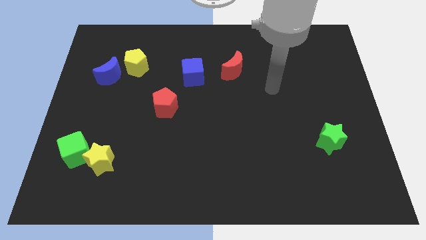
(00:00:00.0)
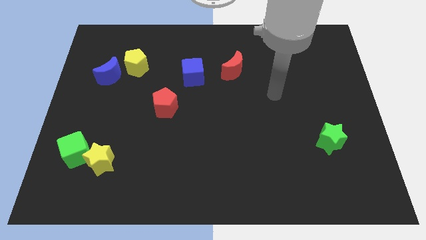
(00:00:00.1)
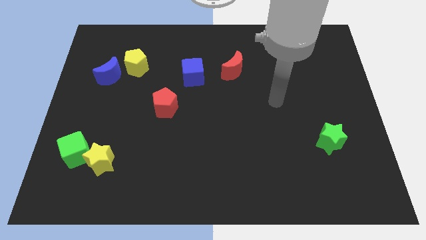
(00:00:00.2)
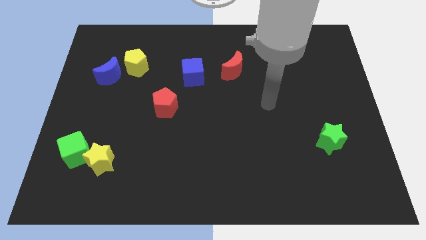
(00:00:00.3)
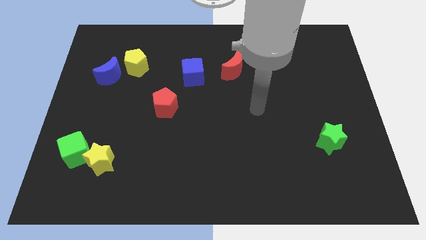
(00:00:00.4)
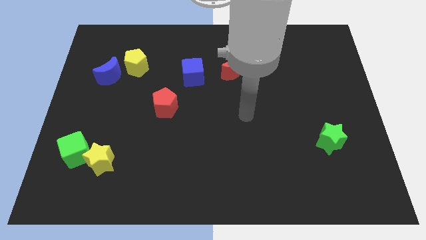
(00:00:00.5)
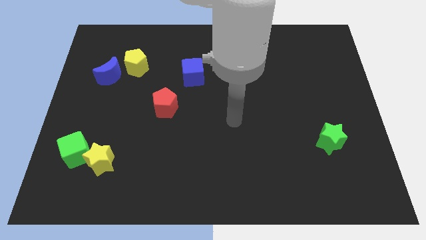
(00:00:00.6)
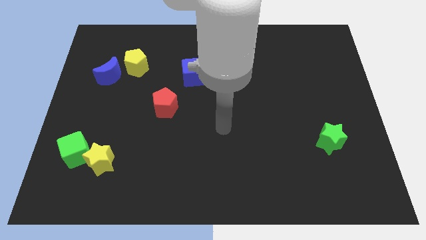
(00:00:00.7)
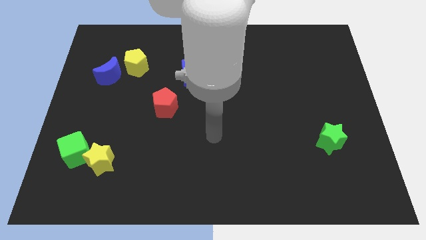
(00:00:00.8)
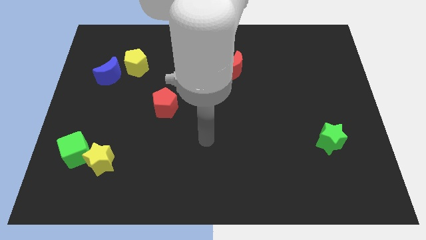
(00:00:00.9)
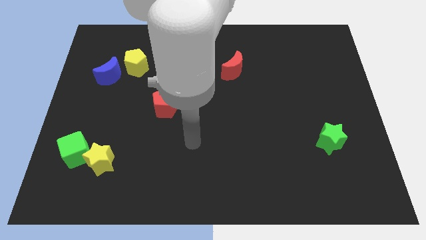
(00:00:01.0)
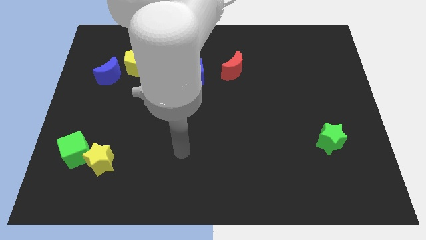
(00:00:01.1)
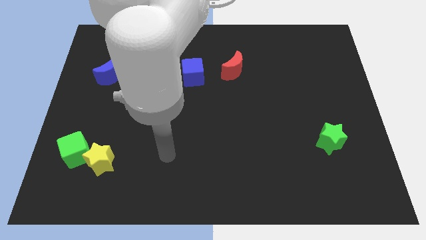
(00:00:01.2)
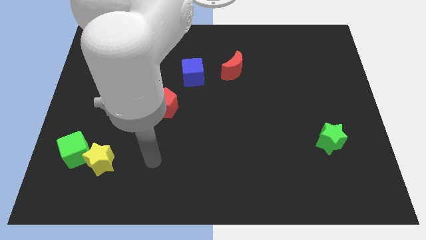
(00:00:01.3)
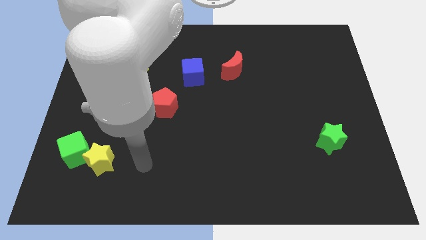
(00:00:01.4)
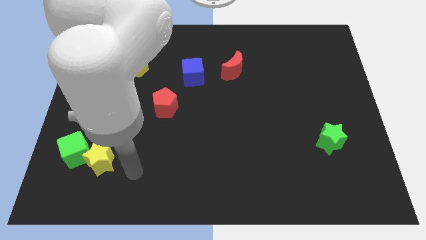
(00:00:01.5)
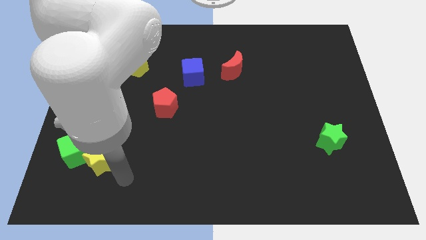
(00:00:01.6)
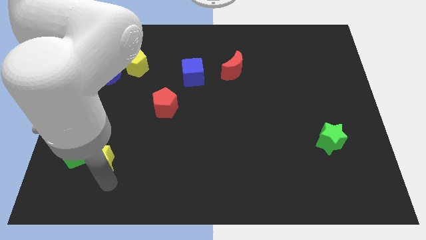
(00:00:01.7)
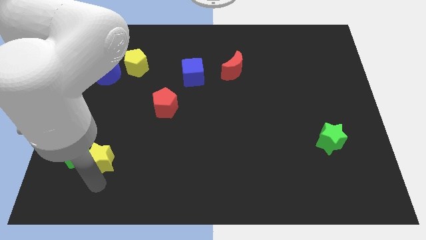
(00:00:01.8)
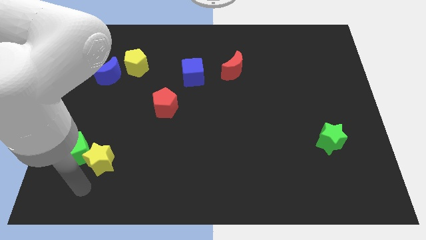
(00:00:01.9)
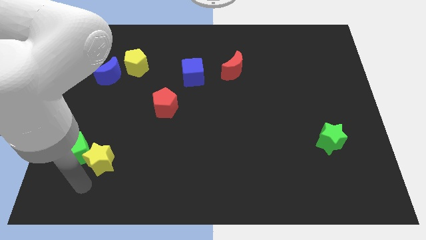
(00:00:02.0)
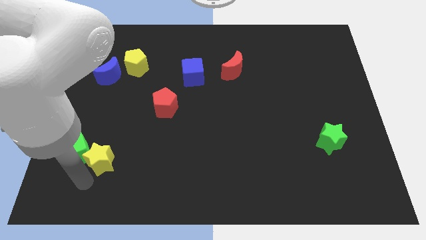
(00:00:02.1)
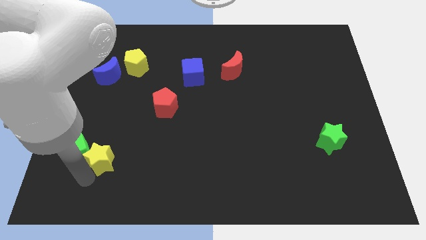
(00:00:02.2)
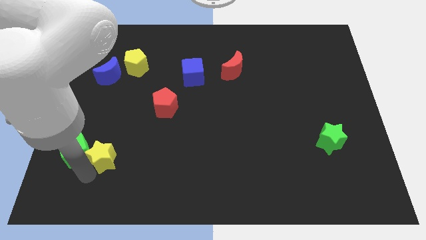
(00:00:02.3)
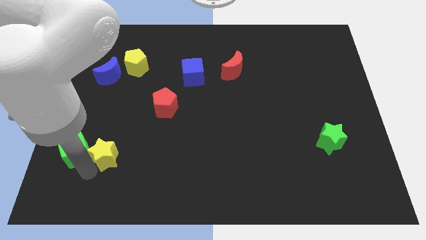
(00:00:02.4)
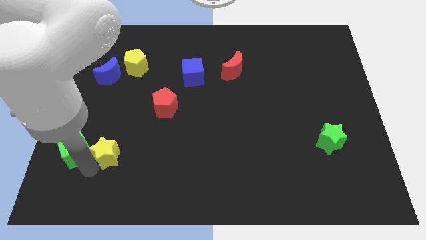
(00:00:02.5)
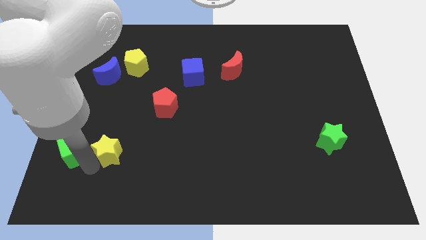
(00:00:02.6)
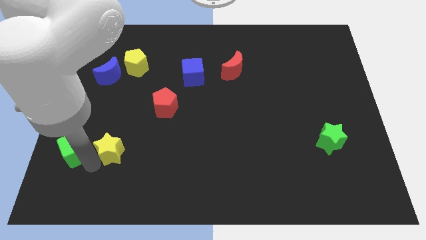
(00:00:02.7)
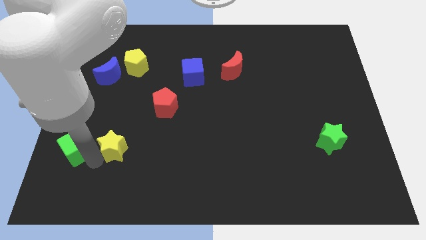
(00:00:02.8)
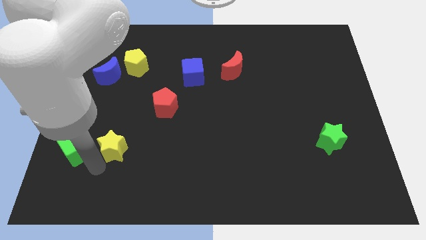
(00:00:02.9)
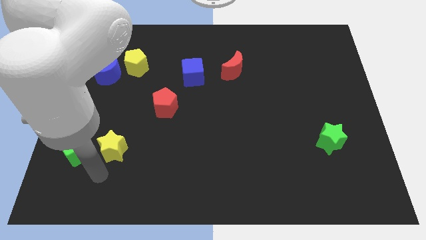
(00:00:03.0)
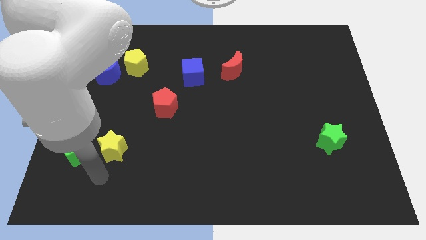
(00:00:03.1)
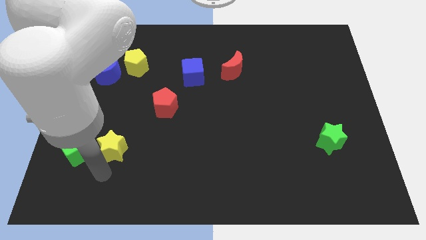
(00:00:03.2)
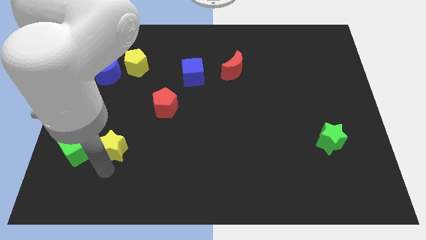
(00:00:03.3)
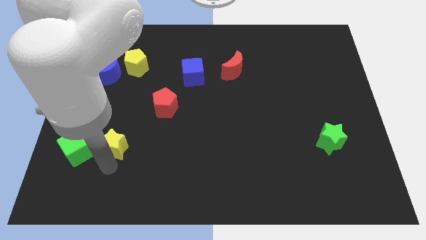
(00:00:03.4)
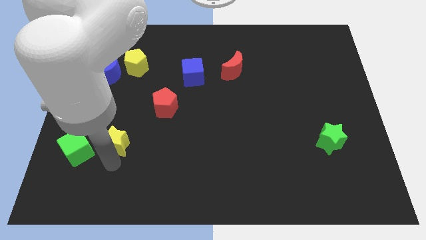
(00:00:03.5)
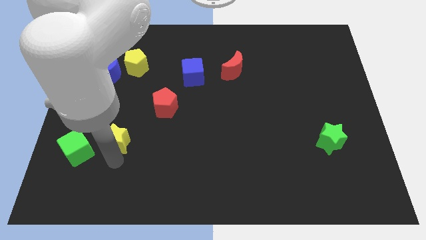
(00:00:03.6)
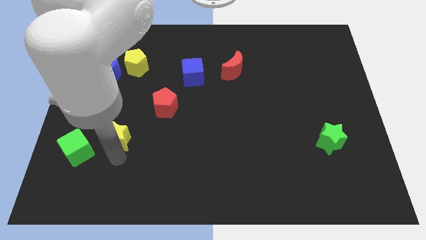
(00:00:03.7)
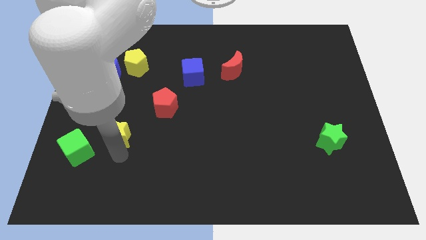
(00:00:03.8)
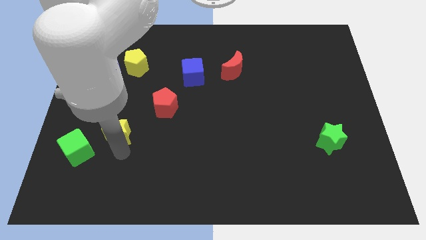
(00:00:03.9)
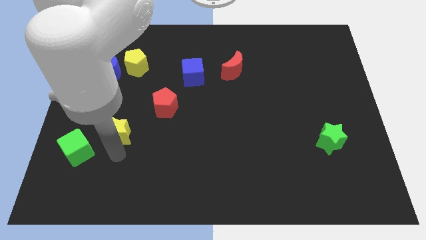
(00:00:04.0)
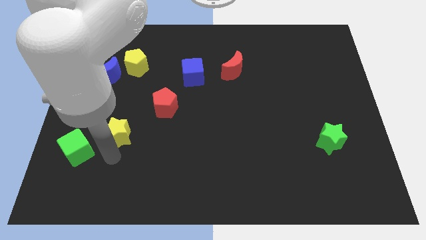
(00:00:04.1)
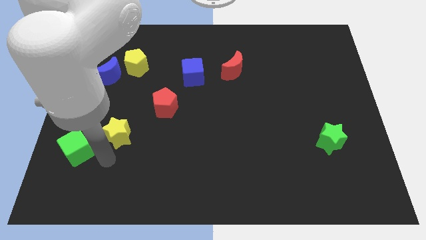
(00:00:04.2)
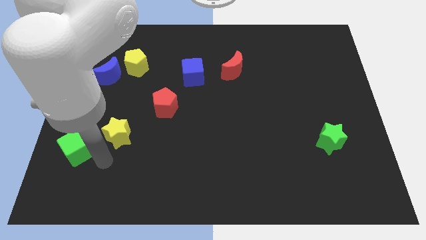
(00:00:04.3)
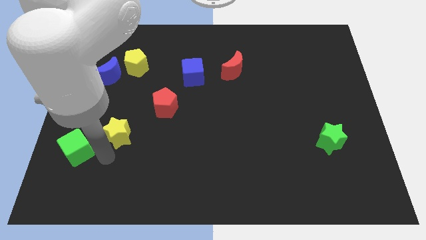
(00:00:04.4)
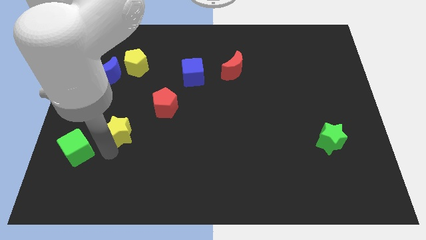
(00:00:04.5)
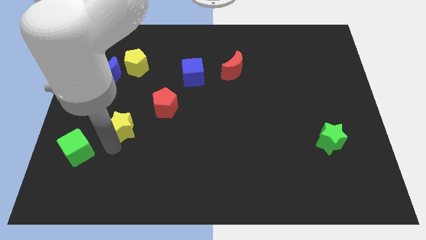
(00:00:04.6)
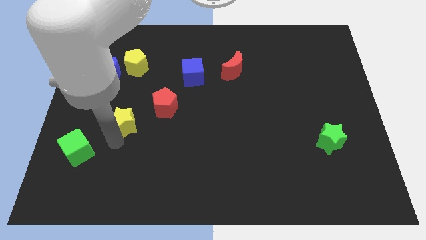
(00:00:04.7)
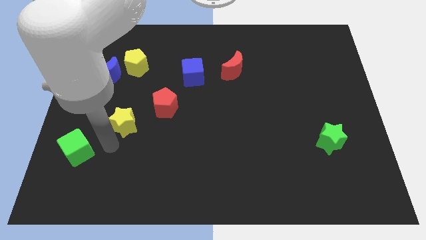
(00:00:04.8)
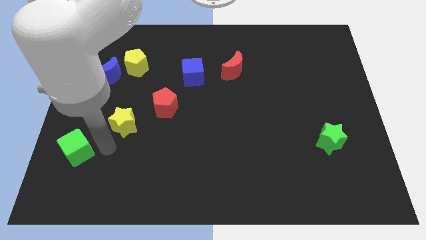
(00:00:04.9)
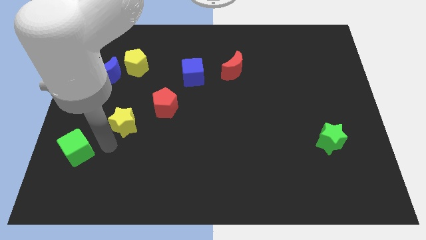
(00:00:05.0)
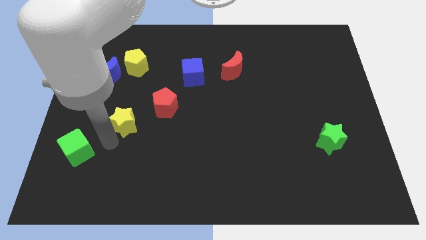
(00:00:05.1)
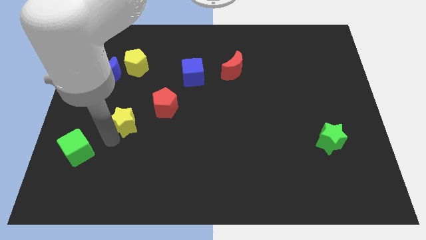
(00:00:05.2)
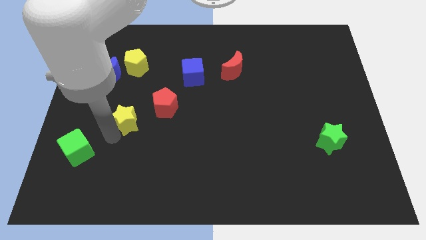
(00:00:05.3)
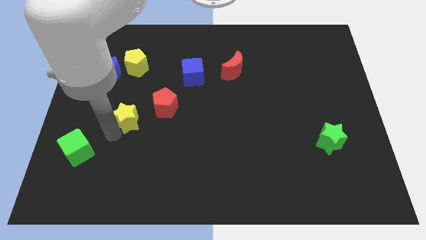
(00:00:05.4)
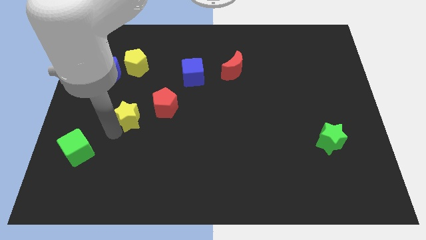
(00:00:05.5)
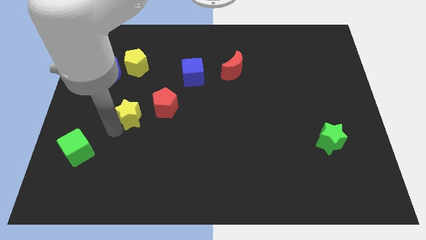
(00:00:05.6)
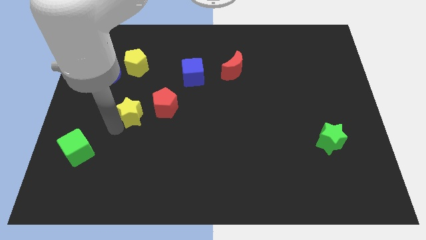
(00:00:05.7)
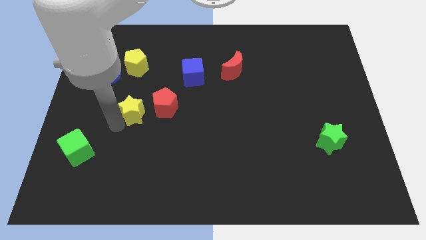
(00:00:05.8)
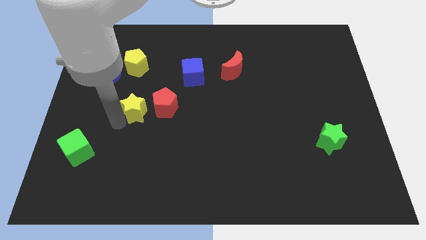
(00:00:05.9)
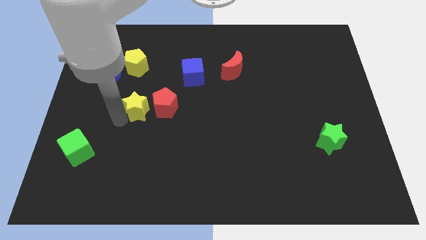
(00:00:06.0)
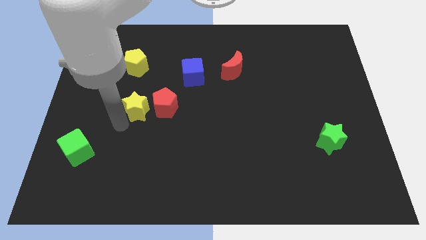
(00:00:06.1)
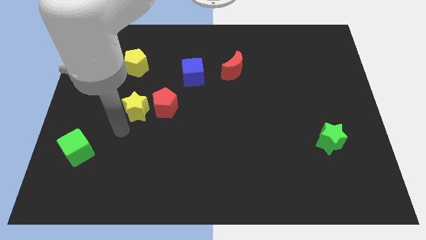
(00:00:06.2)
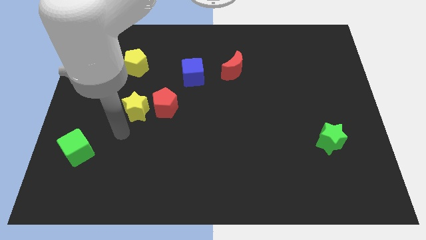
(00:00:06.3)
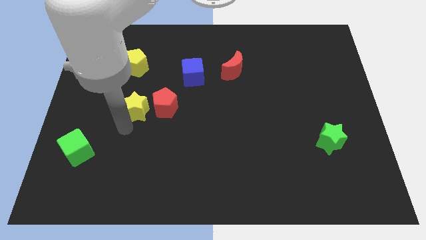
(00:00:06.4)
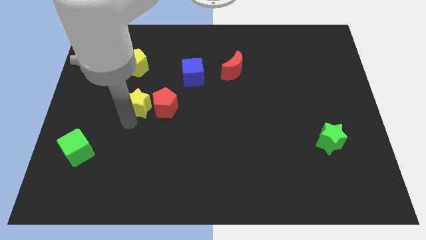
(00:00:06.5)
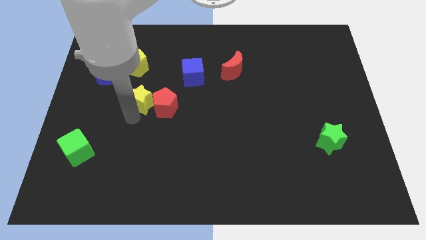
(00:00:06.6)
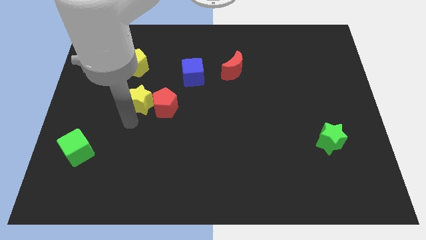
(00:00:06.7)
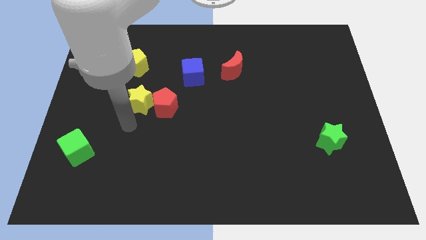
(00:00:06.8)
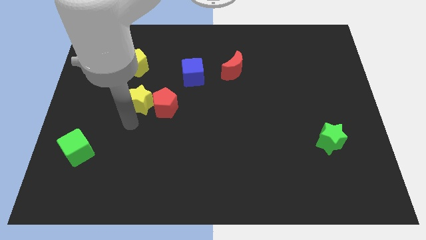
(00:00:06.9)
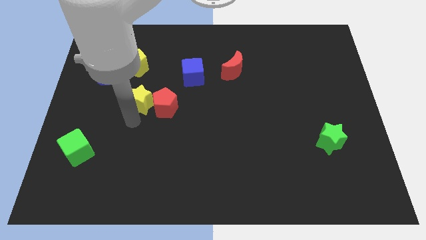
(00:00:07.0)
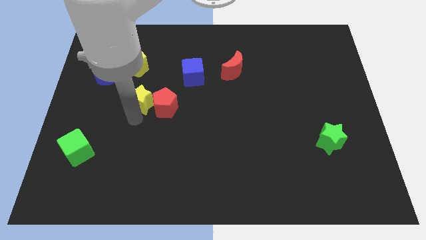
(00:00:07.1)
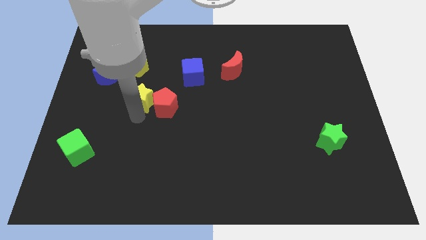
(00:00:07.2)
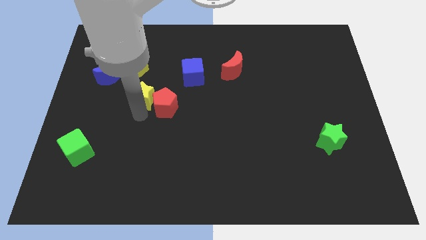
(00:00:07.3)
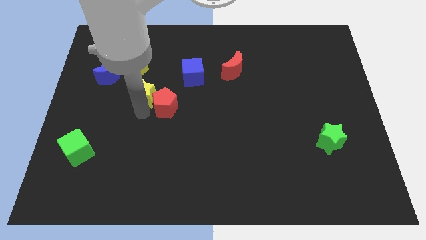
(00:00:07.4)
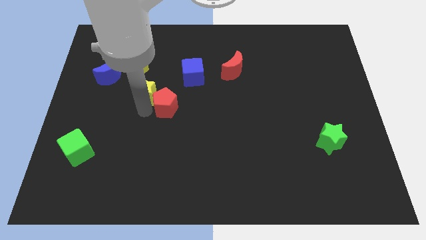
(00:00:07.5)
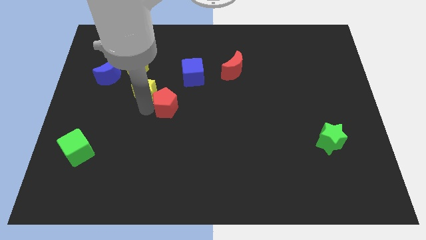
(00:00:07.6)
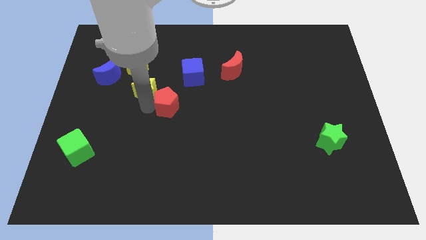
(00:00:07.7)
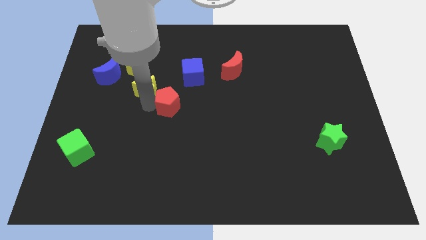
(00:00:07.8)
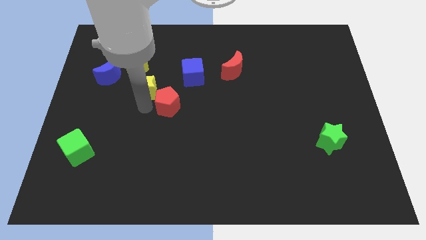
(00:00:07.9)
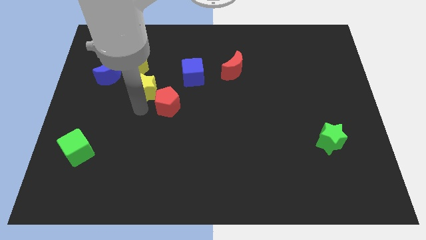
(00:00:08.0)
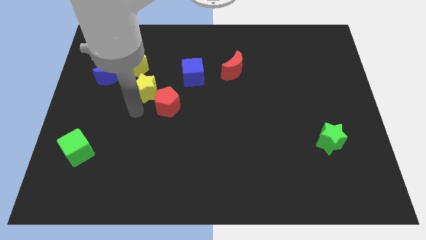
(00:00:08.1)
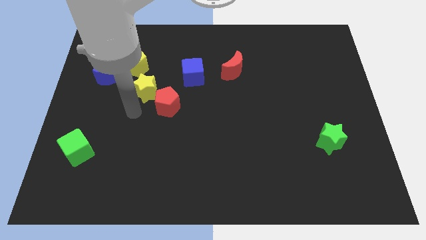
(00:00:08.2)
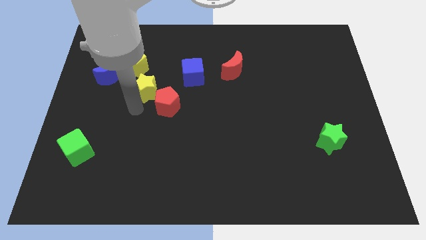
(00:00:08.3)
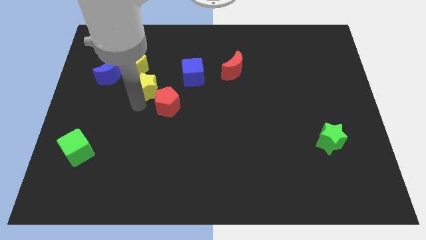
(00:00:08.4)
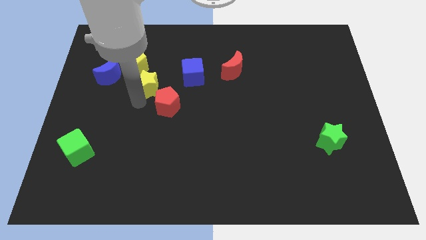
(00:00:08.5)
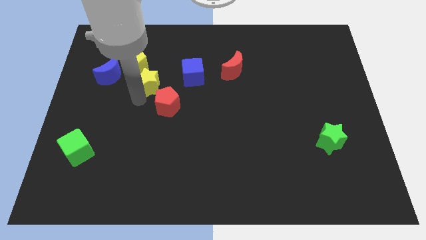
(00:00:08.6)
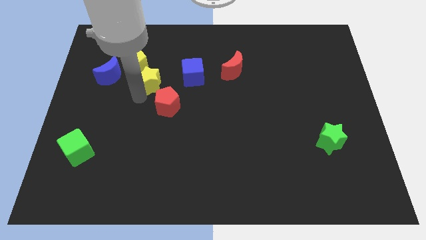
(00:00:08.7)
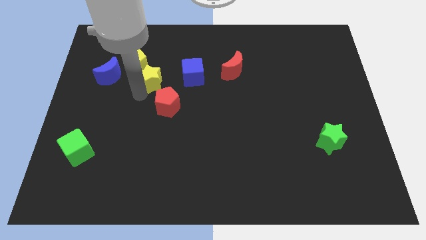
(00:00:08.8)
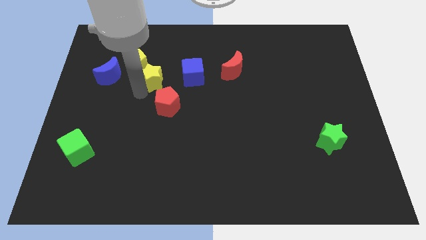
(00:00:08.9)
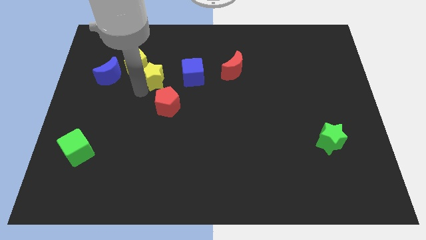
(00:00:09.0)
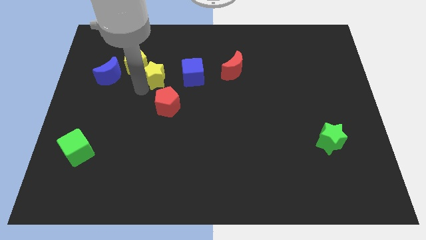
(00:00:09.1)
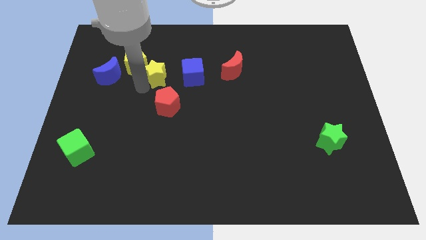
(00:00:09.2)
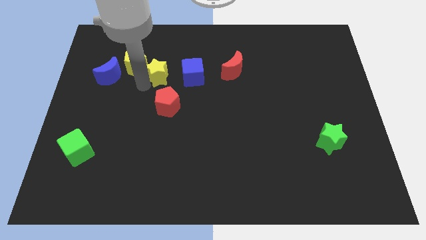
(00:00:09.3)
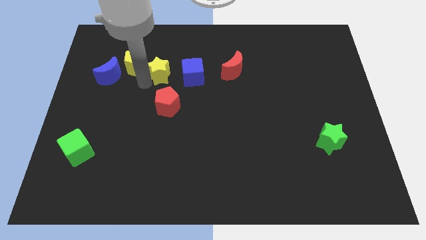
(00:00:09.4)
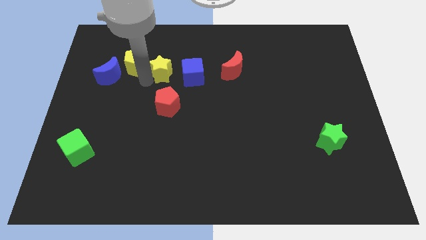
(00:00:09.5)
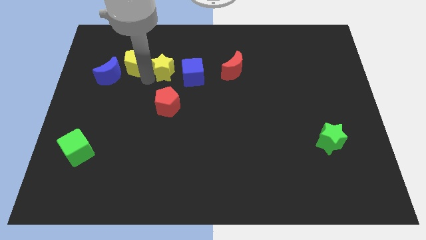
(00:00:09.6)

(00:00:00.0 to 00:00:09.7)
put the yellow star to the top left of the blue cube
